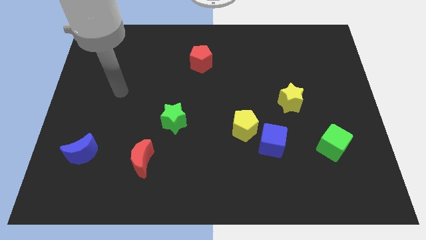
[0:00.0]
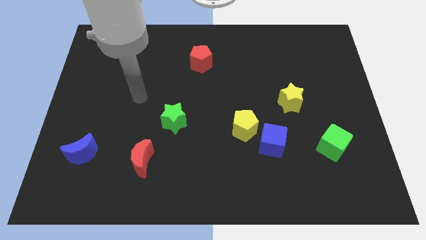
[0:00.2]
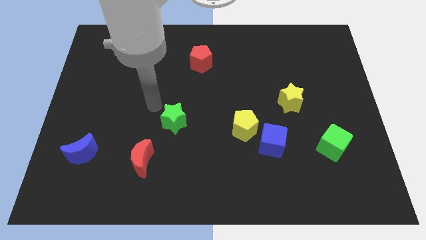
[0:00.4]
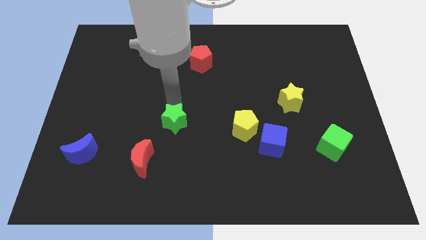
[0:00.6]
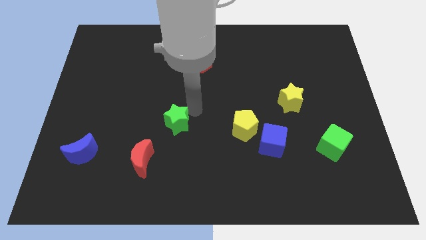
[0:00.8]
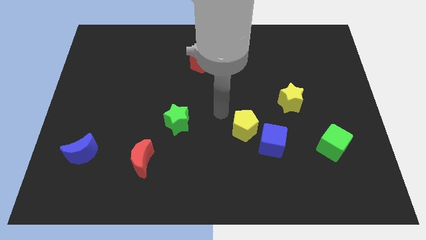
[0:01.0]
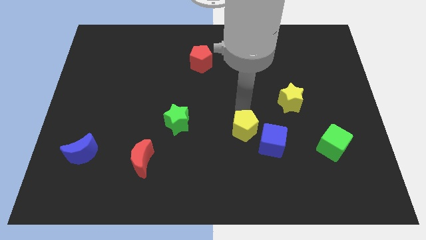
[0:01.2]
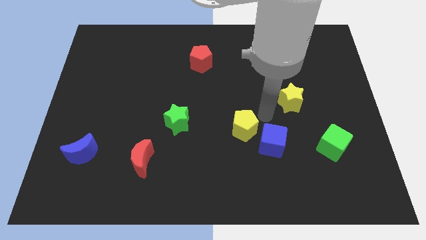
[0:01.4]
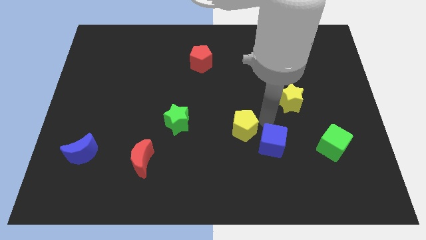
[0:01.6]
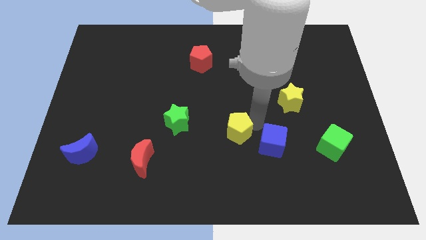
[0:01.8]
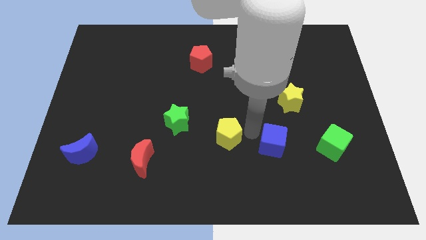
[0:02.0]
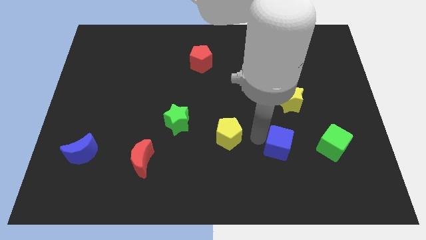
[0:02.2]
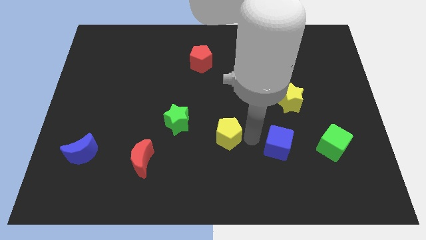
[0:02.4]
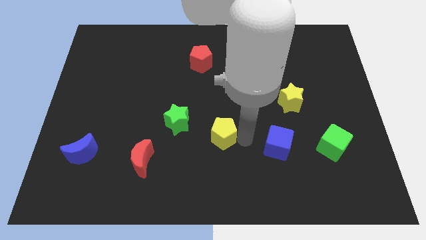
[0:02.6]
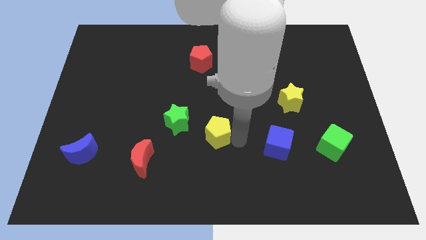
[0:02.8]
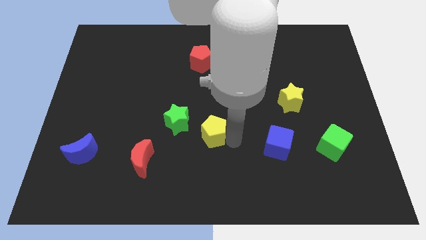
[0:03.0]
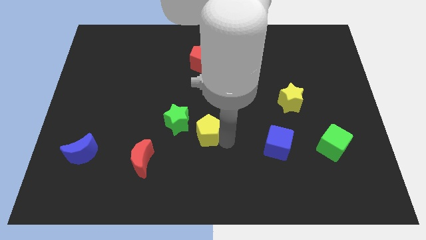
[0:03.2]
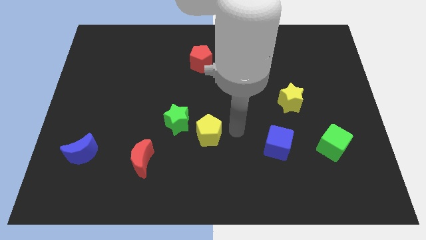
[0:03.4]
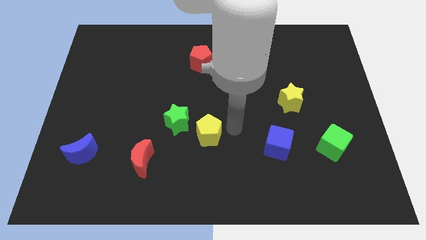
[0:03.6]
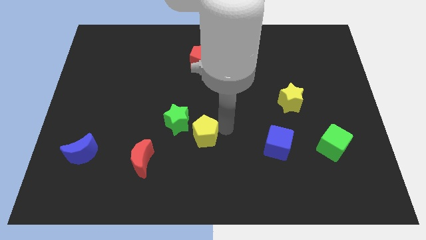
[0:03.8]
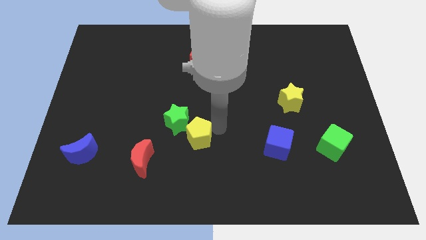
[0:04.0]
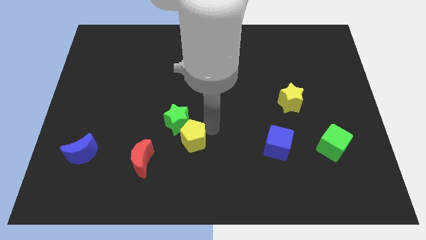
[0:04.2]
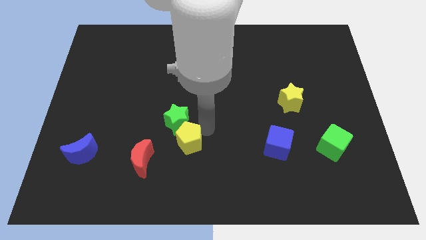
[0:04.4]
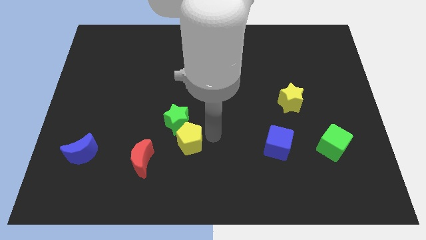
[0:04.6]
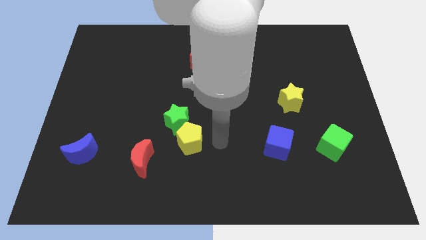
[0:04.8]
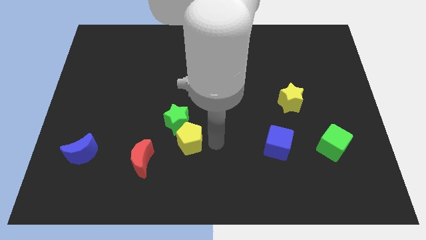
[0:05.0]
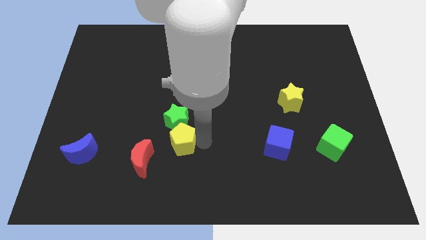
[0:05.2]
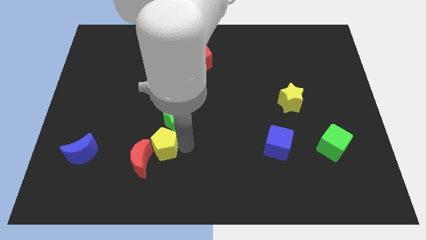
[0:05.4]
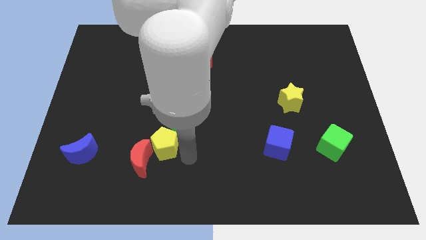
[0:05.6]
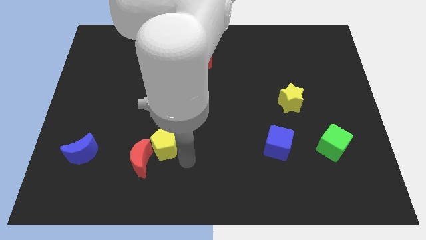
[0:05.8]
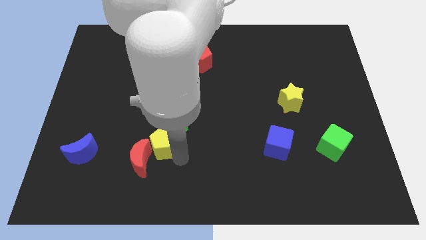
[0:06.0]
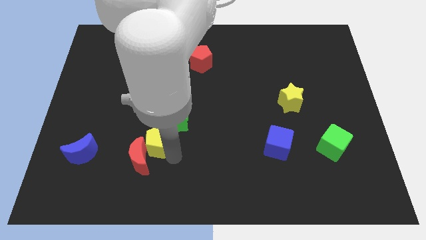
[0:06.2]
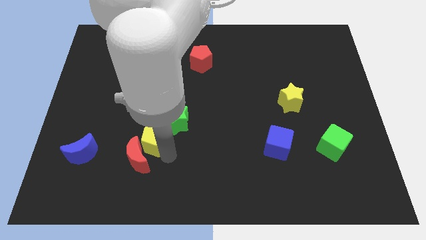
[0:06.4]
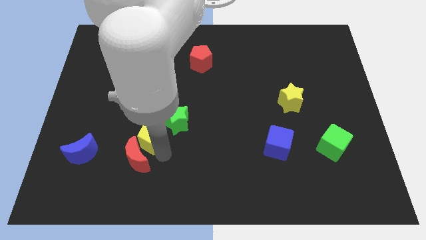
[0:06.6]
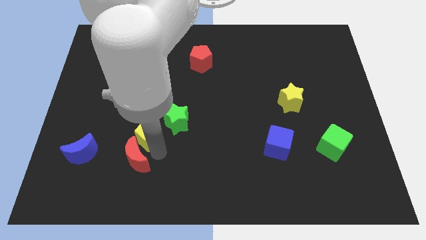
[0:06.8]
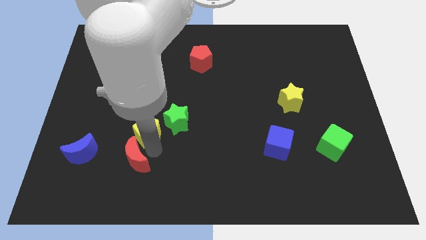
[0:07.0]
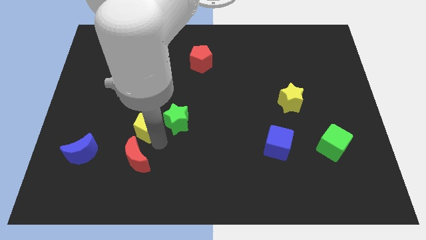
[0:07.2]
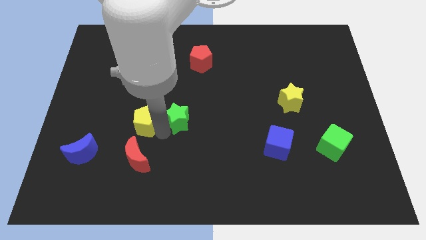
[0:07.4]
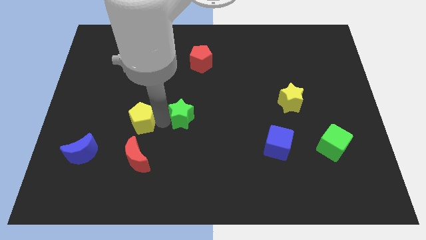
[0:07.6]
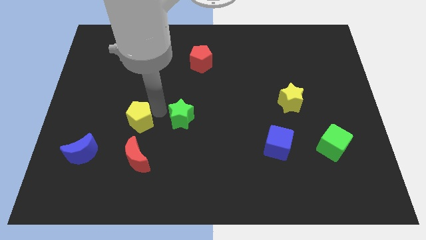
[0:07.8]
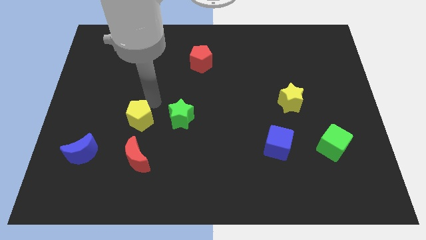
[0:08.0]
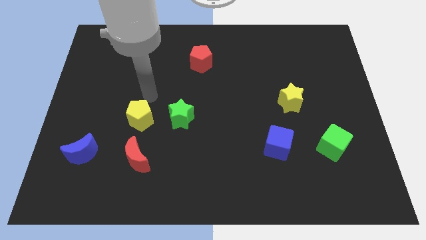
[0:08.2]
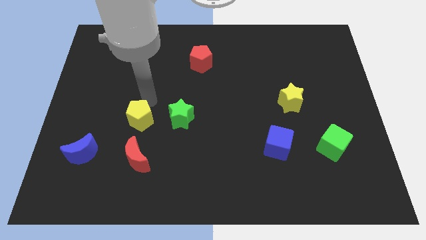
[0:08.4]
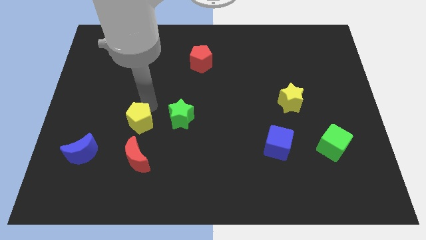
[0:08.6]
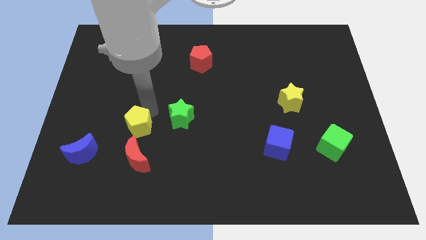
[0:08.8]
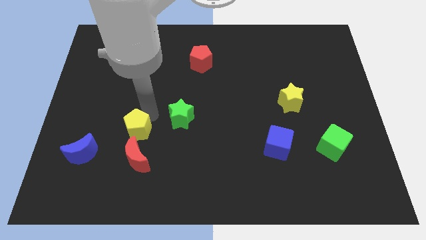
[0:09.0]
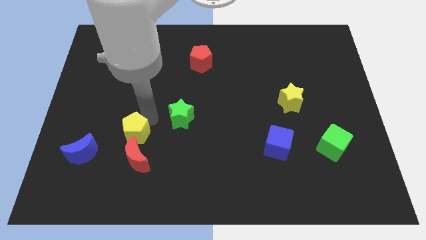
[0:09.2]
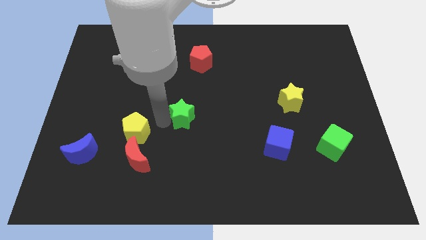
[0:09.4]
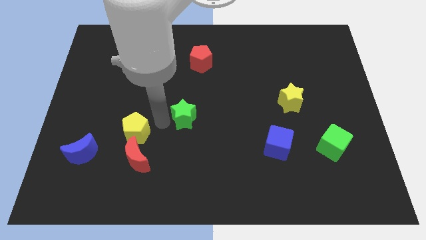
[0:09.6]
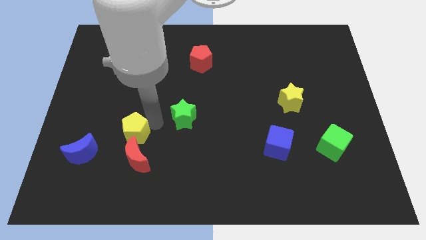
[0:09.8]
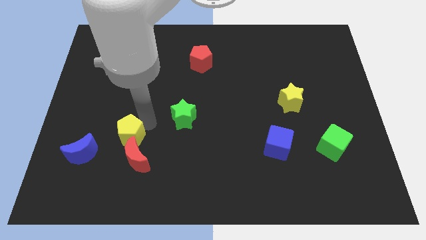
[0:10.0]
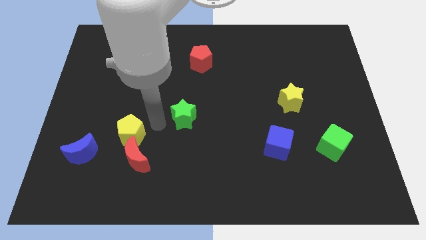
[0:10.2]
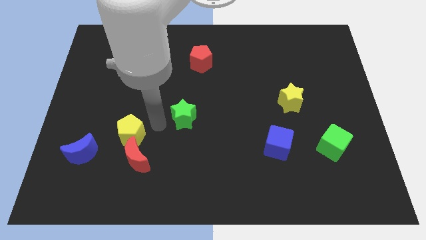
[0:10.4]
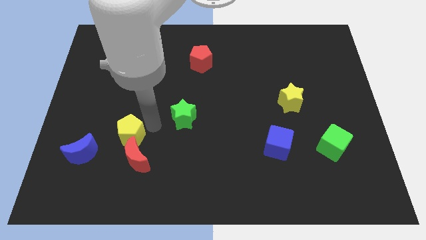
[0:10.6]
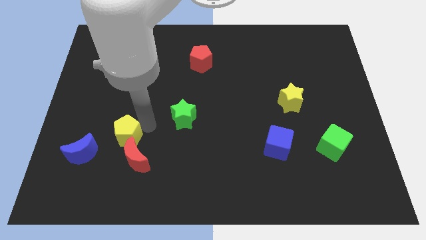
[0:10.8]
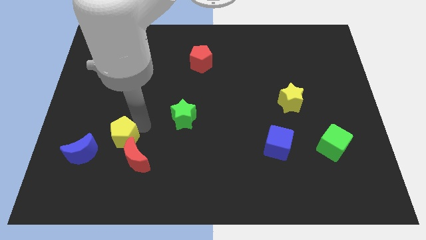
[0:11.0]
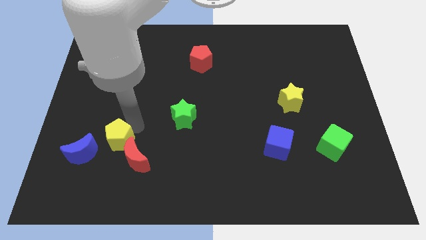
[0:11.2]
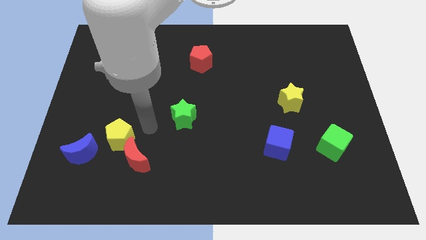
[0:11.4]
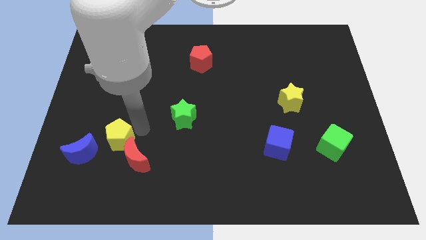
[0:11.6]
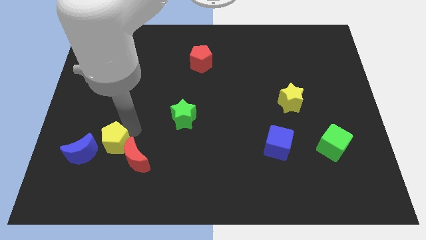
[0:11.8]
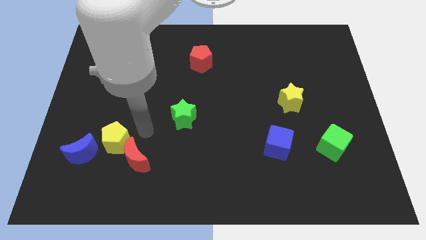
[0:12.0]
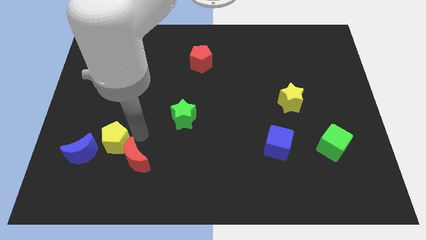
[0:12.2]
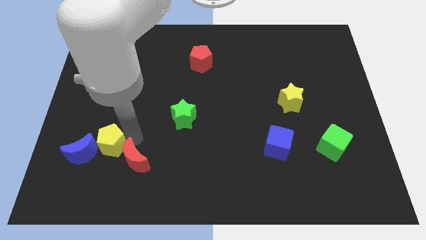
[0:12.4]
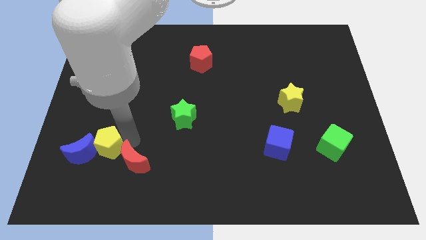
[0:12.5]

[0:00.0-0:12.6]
move the yellow pentagon to the blue moon

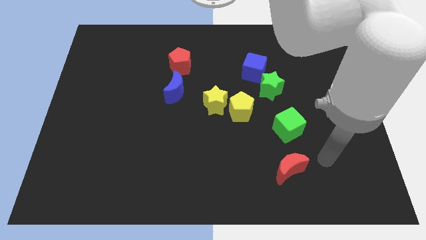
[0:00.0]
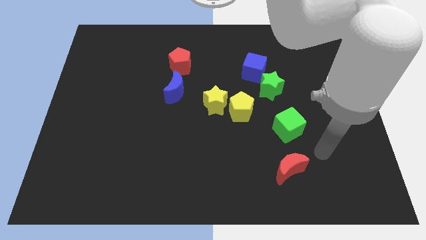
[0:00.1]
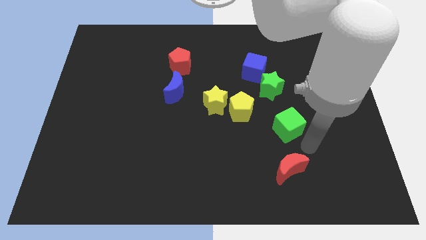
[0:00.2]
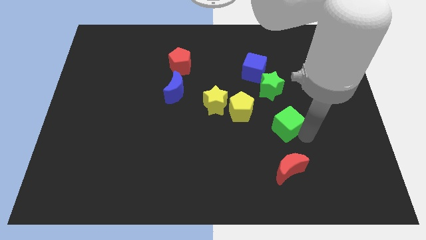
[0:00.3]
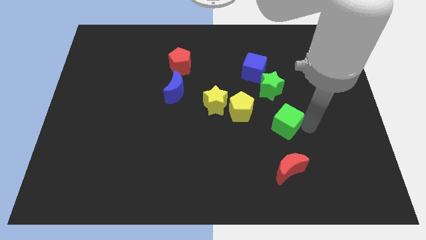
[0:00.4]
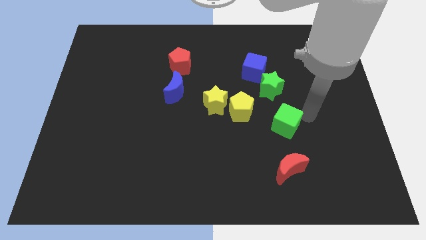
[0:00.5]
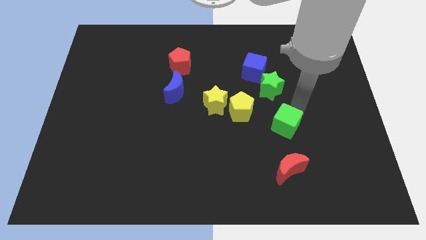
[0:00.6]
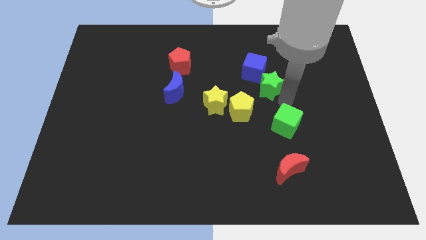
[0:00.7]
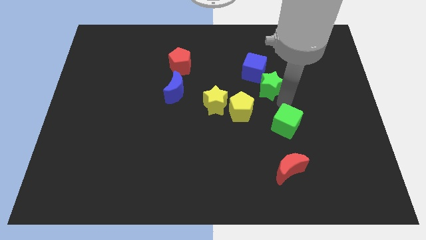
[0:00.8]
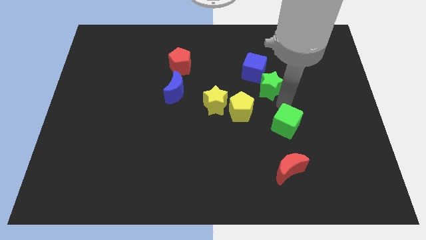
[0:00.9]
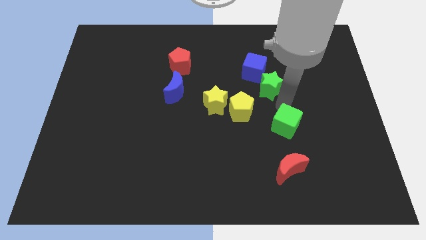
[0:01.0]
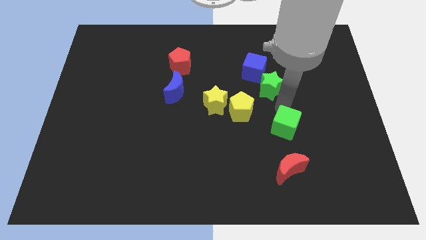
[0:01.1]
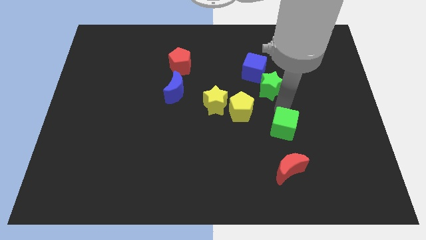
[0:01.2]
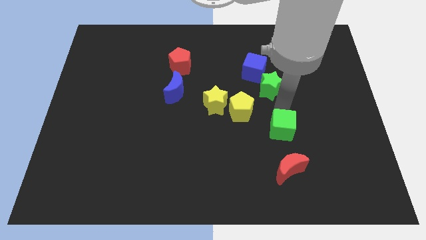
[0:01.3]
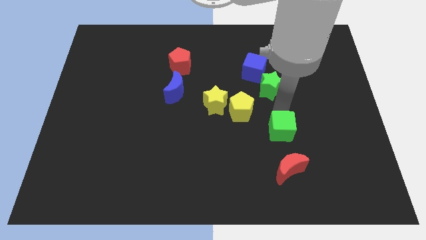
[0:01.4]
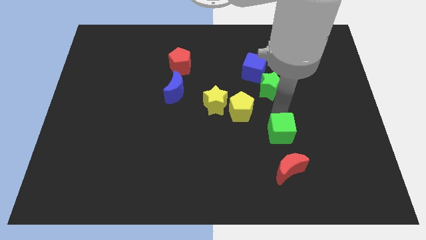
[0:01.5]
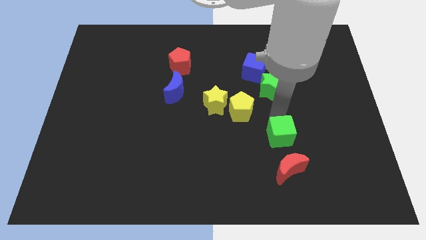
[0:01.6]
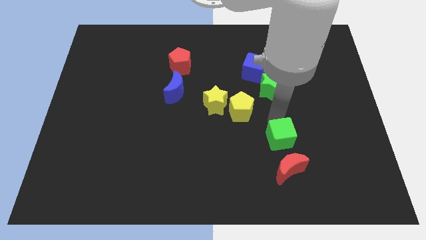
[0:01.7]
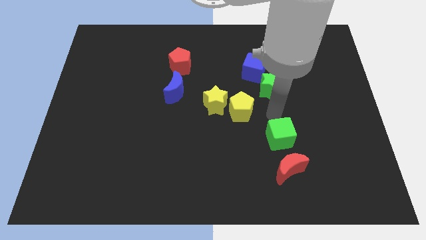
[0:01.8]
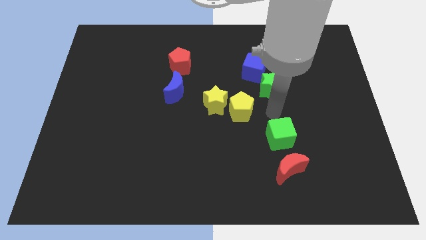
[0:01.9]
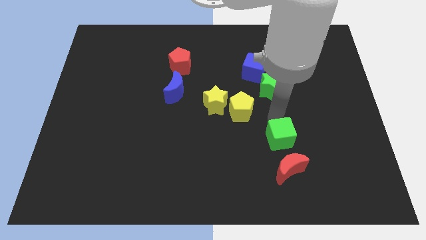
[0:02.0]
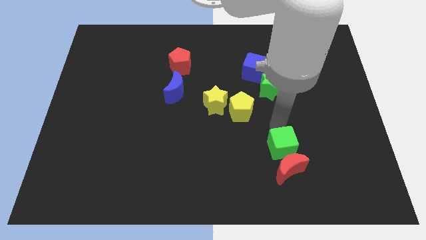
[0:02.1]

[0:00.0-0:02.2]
move the green cube close to the red moon
